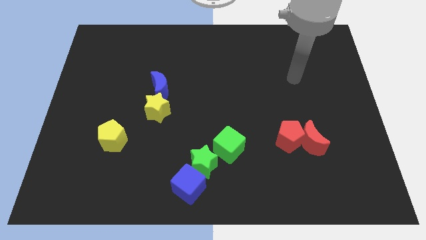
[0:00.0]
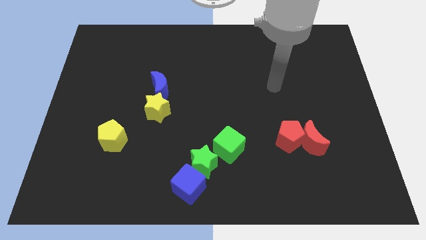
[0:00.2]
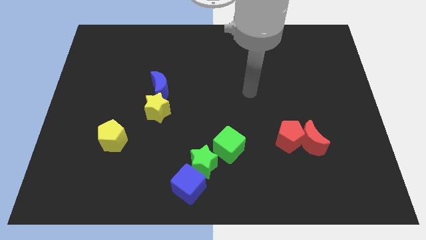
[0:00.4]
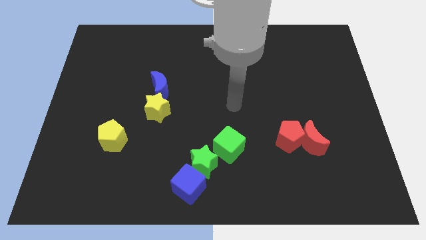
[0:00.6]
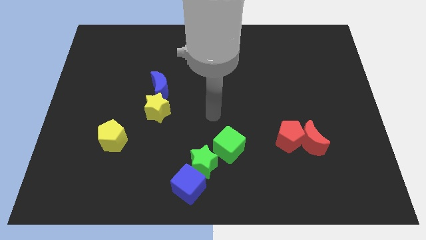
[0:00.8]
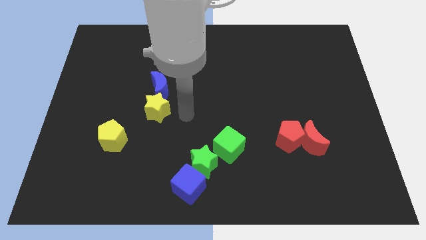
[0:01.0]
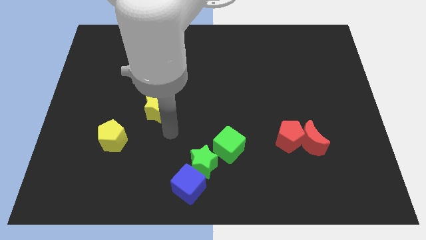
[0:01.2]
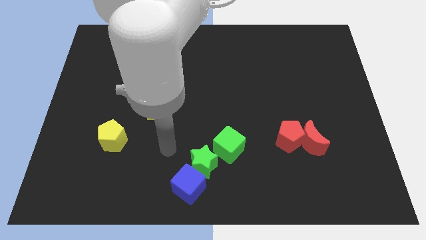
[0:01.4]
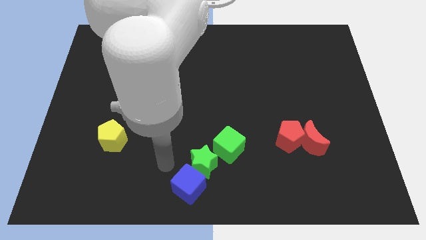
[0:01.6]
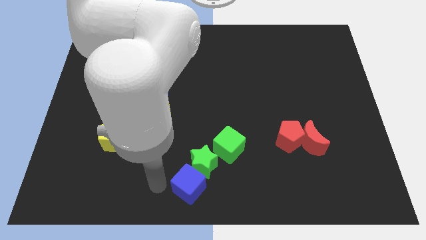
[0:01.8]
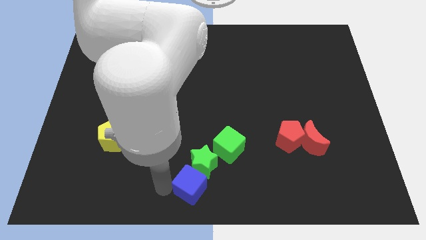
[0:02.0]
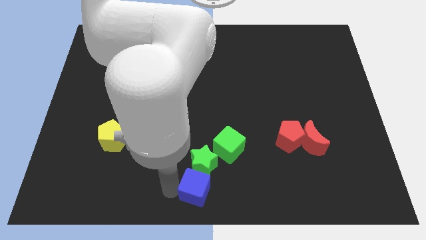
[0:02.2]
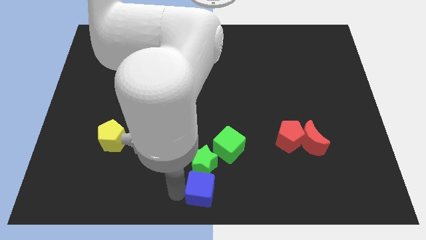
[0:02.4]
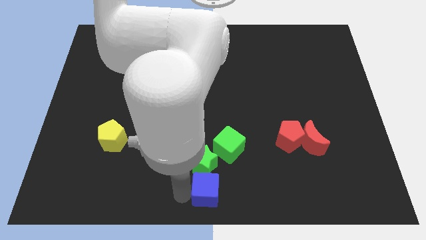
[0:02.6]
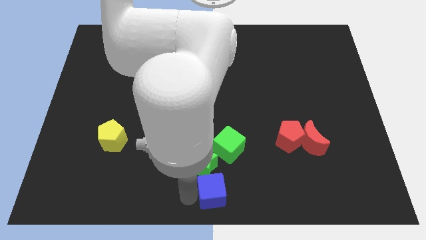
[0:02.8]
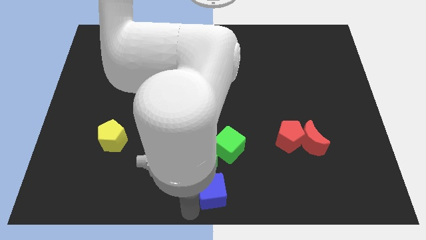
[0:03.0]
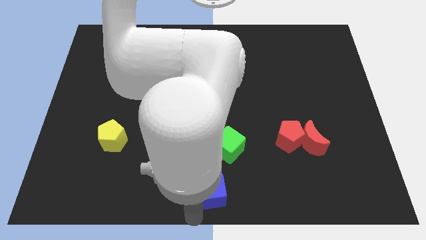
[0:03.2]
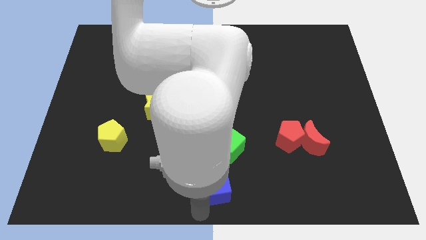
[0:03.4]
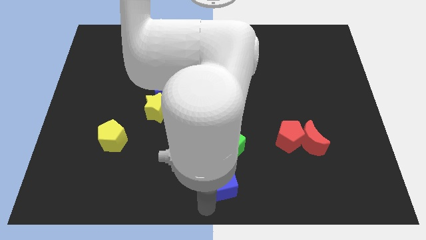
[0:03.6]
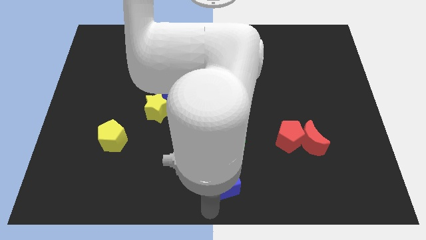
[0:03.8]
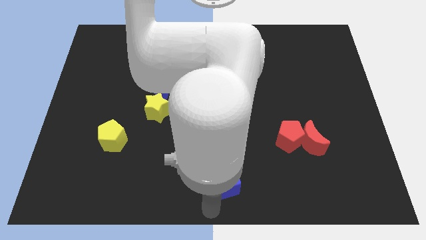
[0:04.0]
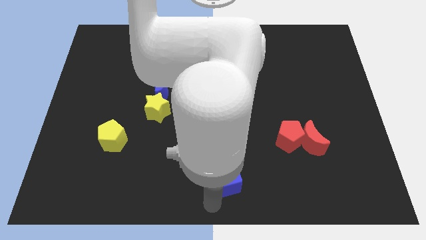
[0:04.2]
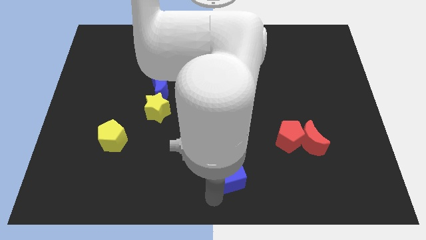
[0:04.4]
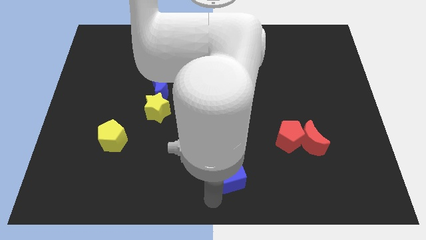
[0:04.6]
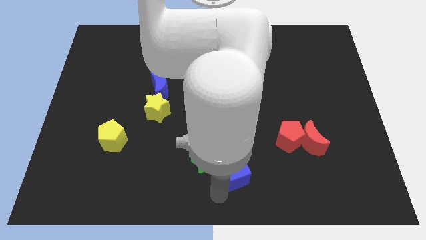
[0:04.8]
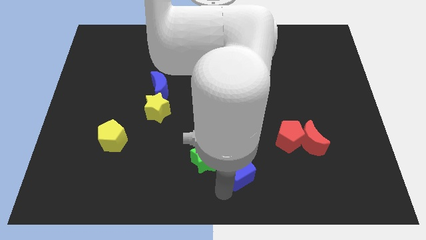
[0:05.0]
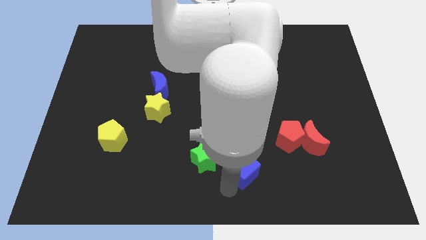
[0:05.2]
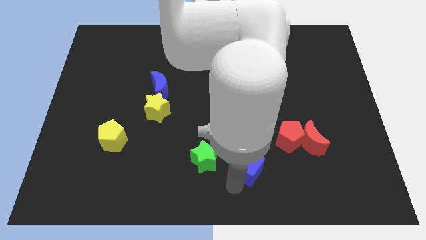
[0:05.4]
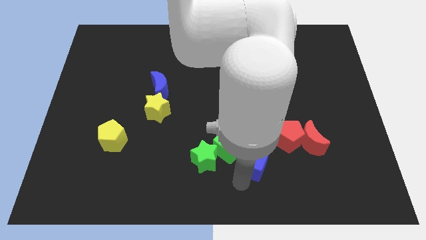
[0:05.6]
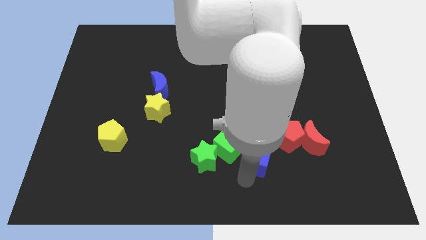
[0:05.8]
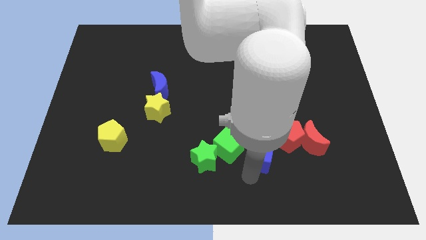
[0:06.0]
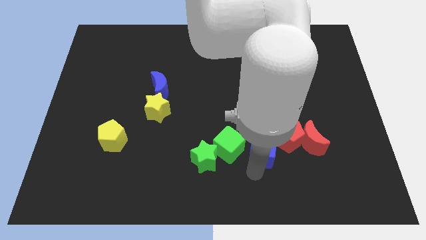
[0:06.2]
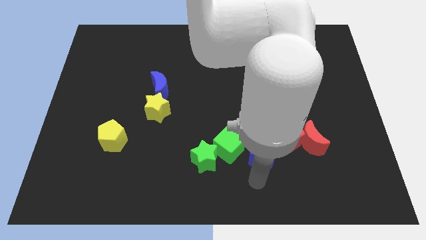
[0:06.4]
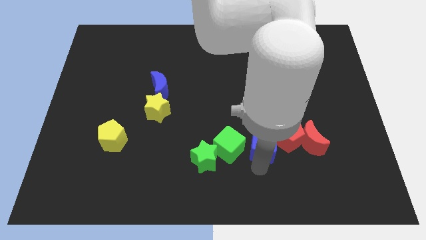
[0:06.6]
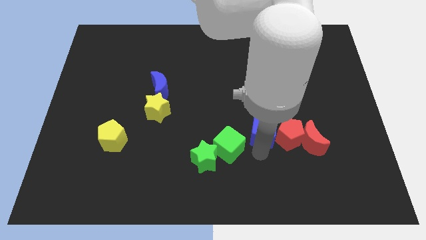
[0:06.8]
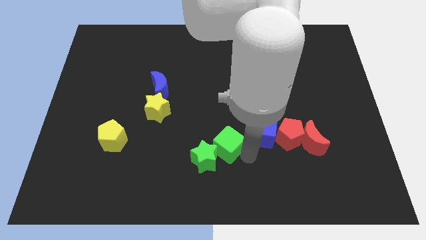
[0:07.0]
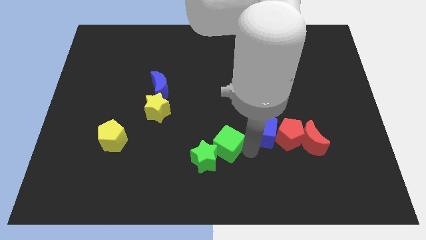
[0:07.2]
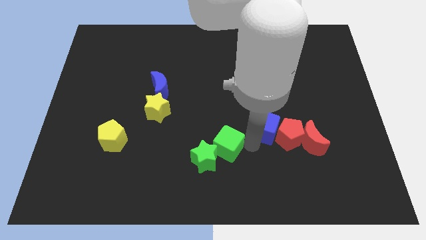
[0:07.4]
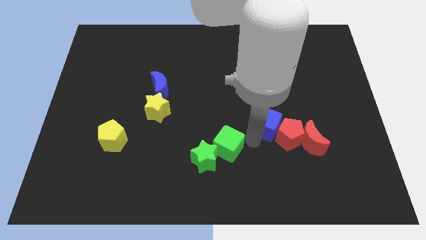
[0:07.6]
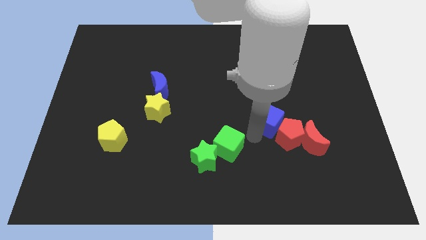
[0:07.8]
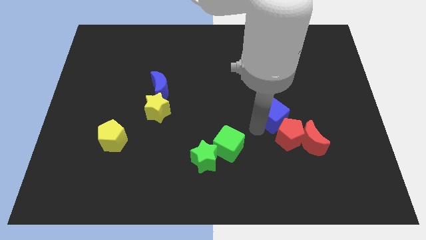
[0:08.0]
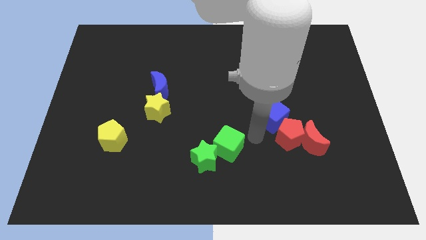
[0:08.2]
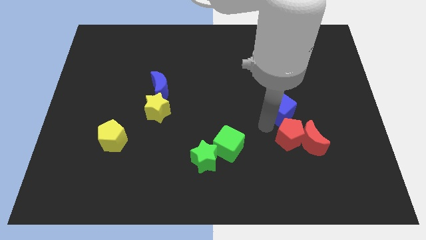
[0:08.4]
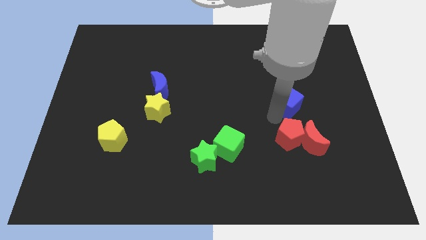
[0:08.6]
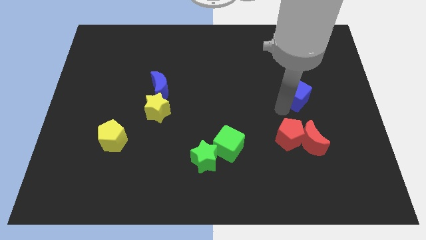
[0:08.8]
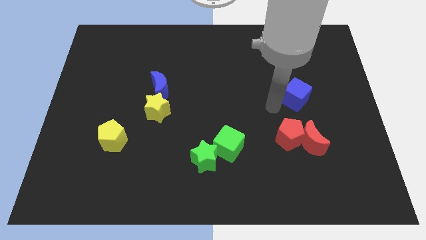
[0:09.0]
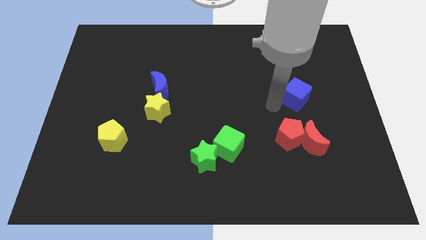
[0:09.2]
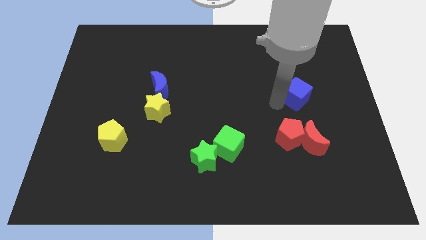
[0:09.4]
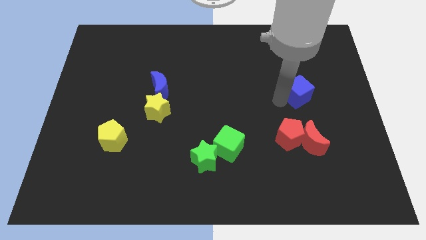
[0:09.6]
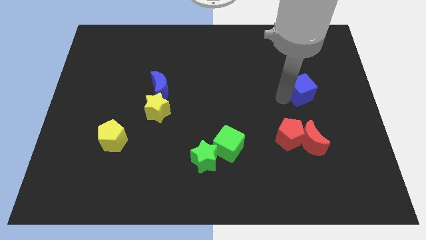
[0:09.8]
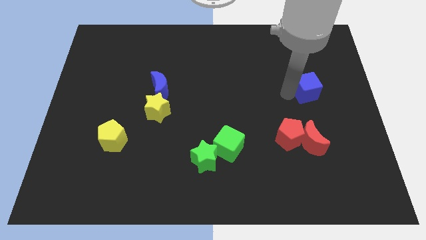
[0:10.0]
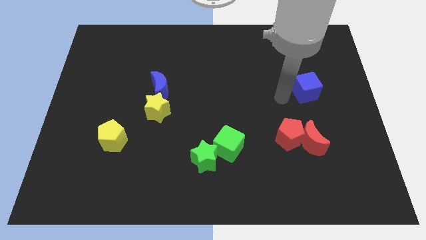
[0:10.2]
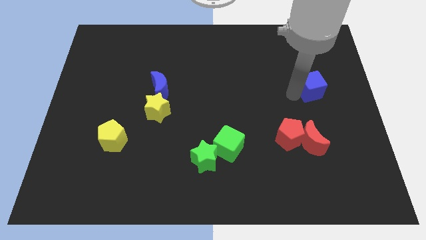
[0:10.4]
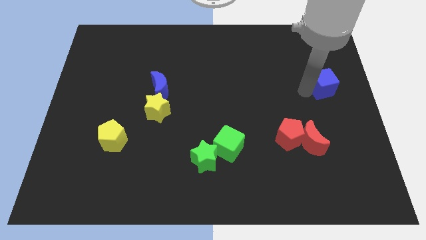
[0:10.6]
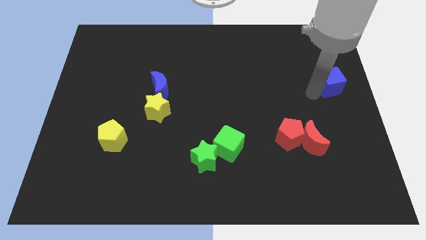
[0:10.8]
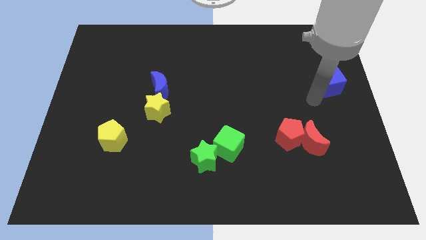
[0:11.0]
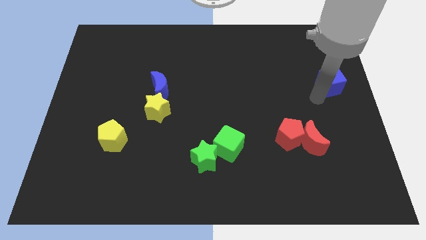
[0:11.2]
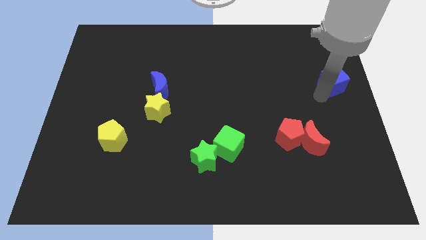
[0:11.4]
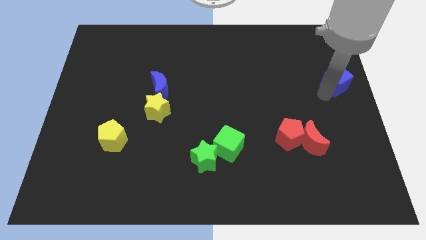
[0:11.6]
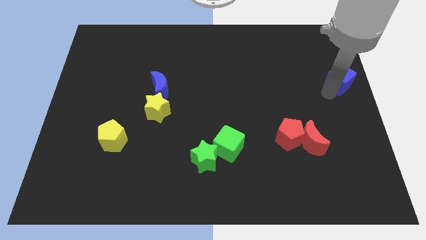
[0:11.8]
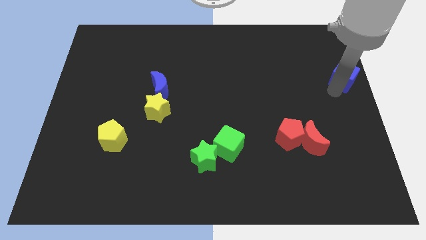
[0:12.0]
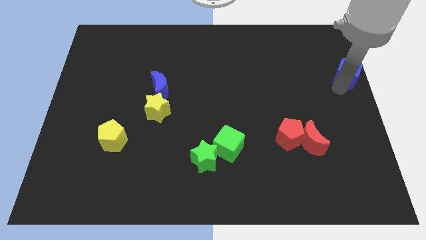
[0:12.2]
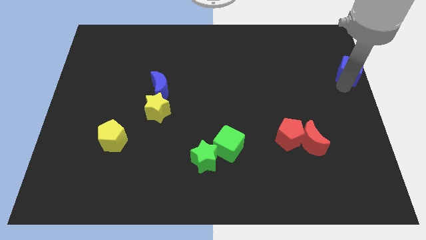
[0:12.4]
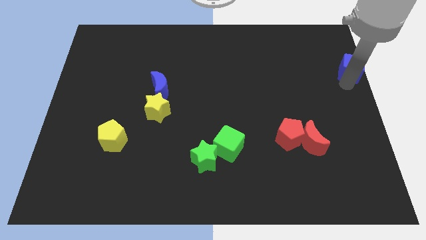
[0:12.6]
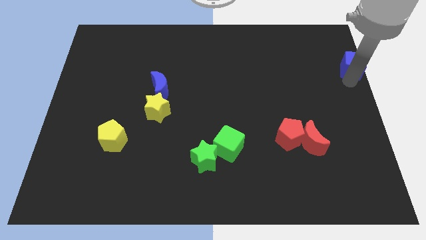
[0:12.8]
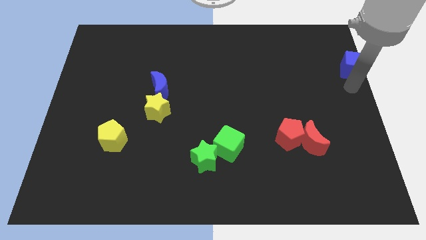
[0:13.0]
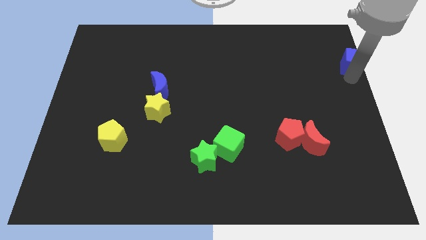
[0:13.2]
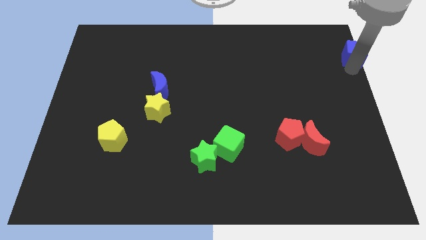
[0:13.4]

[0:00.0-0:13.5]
move the blue cube to the top right corner
